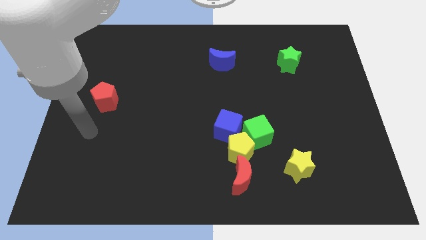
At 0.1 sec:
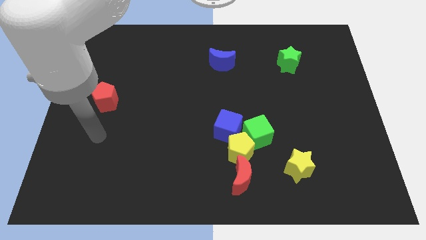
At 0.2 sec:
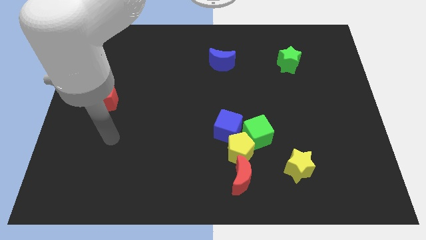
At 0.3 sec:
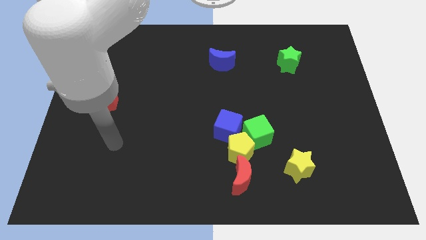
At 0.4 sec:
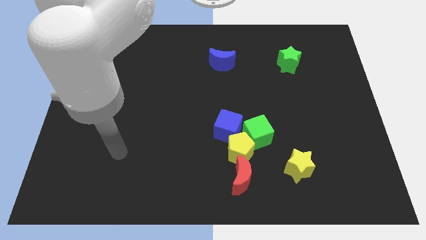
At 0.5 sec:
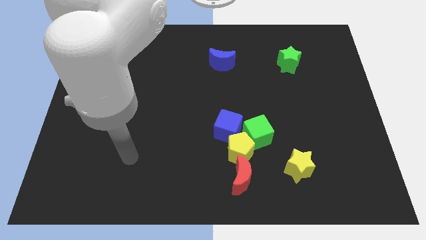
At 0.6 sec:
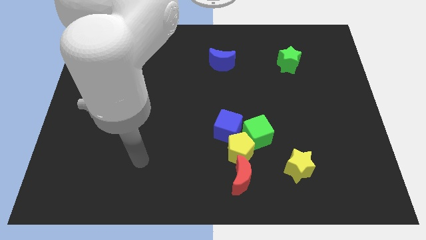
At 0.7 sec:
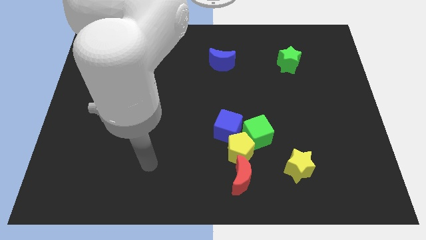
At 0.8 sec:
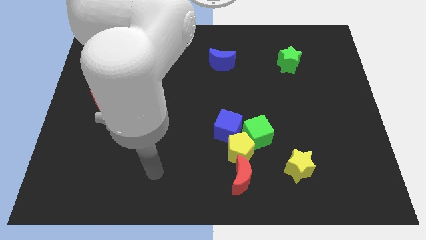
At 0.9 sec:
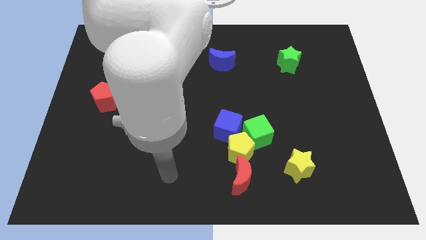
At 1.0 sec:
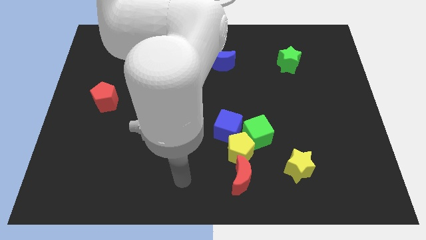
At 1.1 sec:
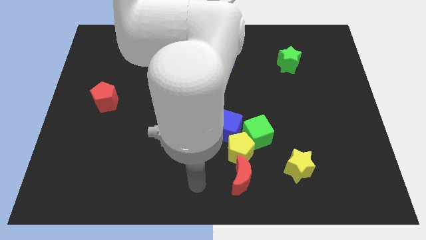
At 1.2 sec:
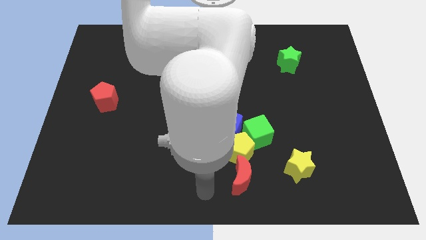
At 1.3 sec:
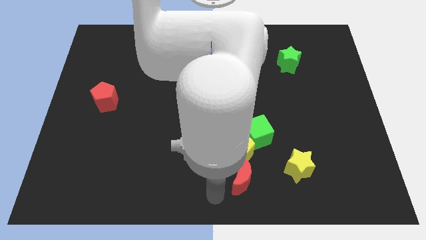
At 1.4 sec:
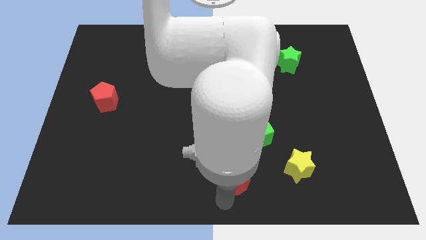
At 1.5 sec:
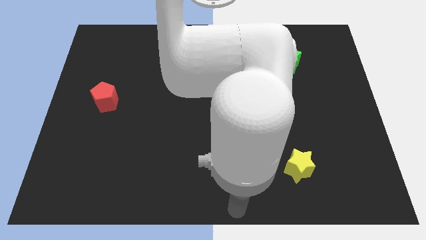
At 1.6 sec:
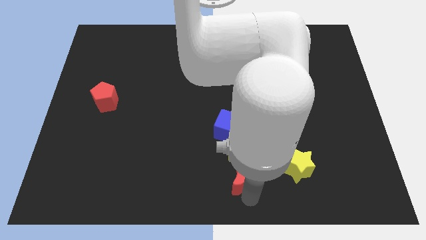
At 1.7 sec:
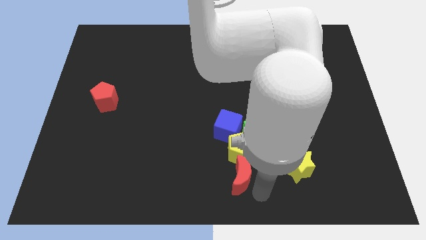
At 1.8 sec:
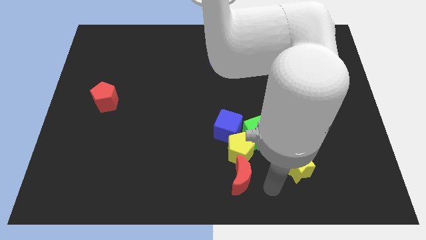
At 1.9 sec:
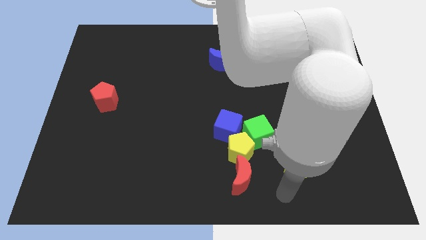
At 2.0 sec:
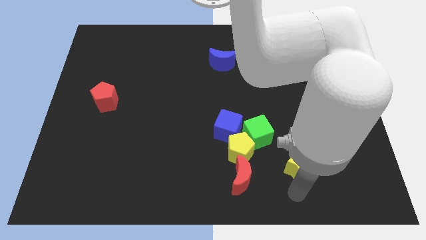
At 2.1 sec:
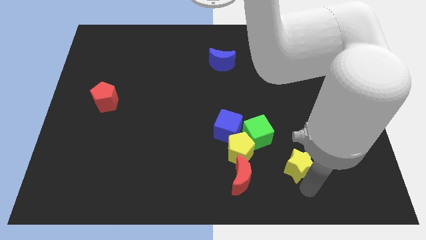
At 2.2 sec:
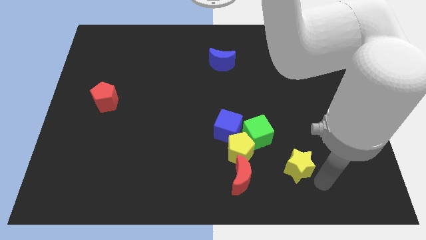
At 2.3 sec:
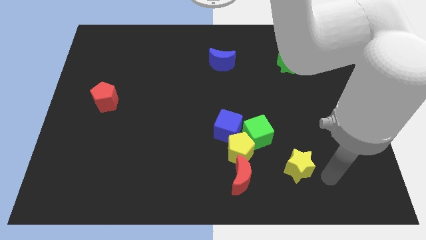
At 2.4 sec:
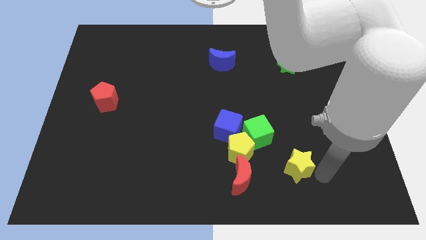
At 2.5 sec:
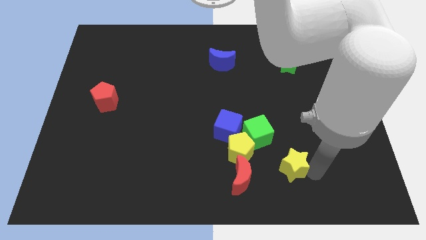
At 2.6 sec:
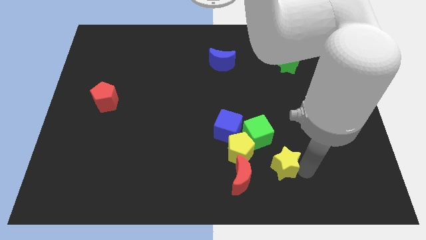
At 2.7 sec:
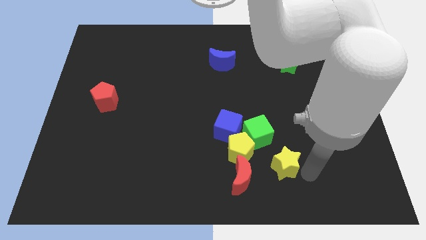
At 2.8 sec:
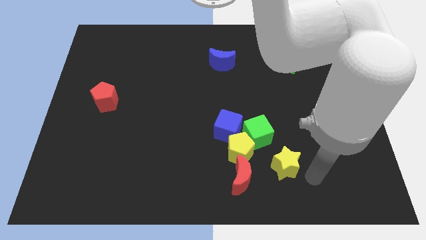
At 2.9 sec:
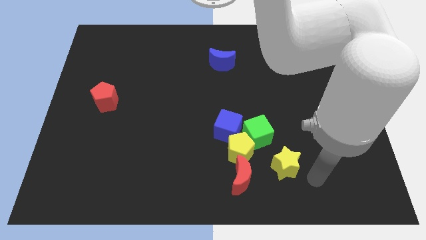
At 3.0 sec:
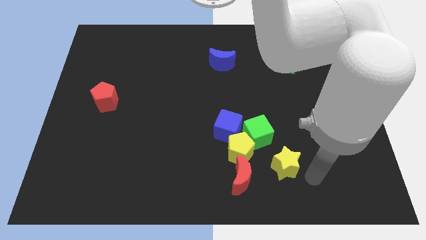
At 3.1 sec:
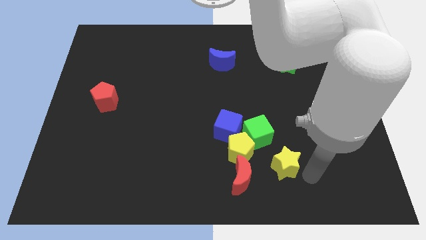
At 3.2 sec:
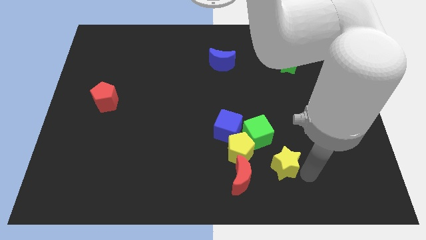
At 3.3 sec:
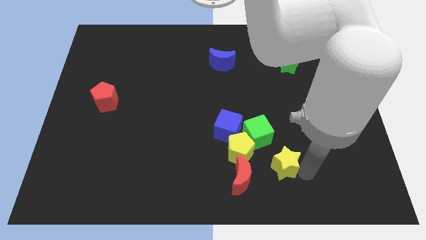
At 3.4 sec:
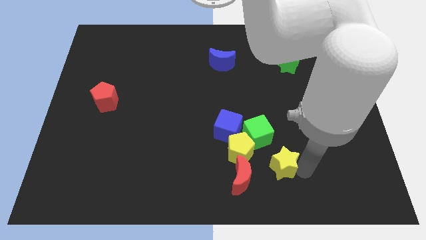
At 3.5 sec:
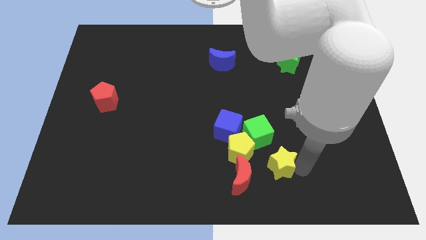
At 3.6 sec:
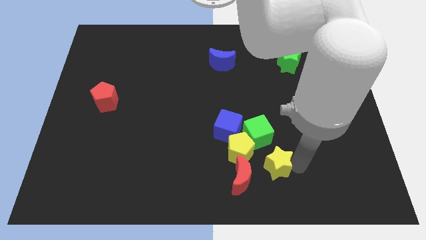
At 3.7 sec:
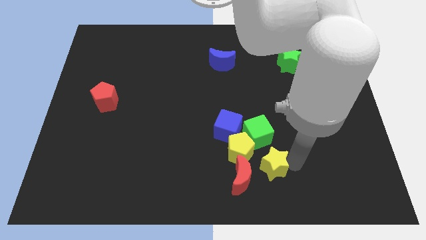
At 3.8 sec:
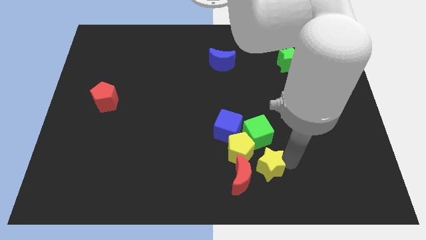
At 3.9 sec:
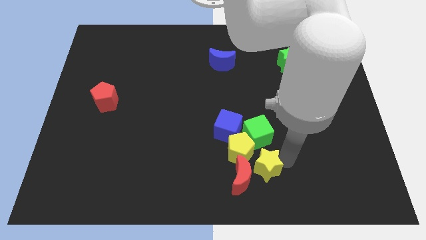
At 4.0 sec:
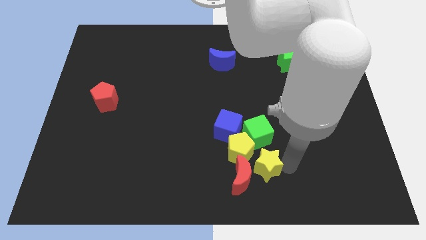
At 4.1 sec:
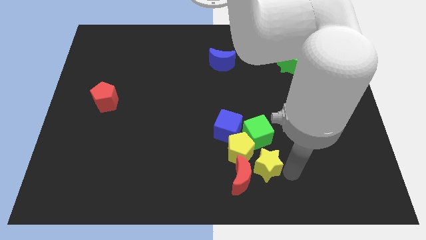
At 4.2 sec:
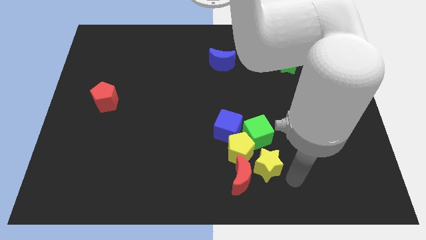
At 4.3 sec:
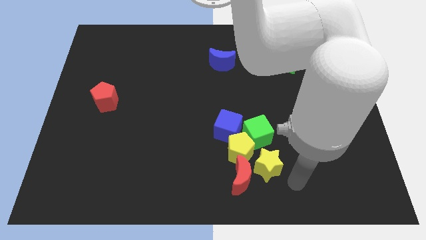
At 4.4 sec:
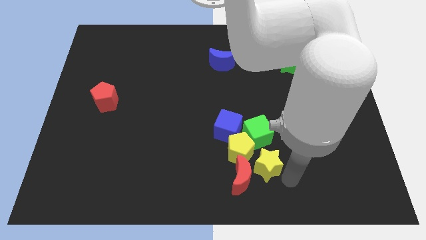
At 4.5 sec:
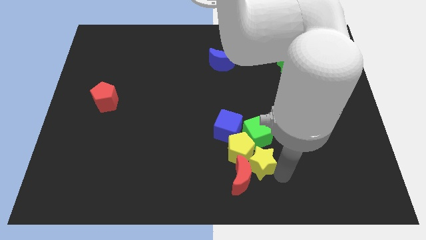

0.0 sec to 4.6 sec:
push the yellow star close to the yellow pentagon

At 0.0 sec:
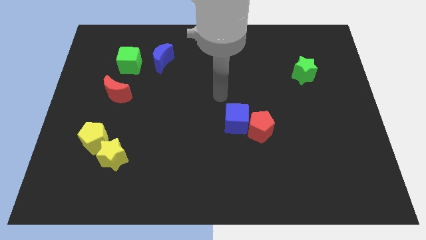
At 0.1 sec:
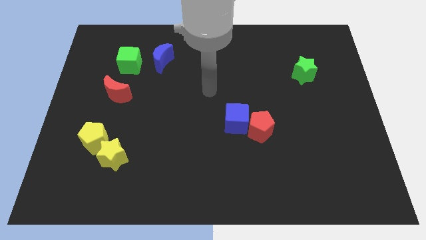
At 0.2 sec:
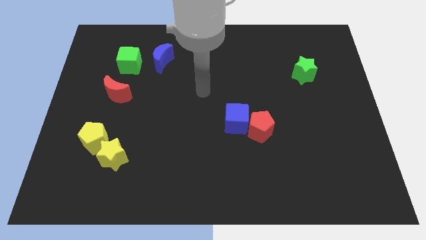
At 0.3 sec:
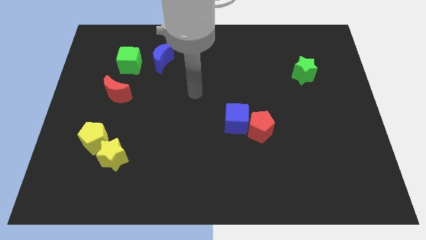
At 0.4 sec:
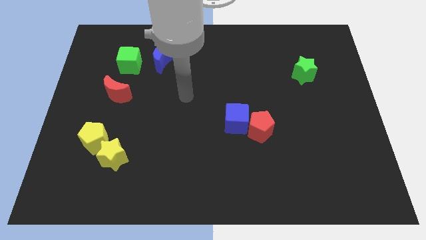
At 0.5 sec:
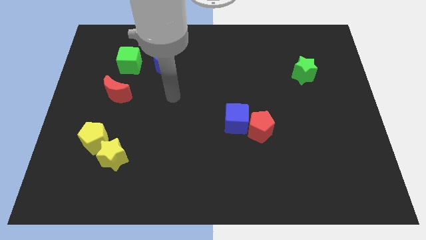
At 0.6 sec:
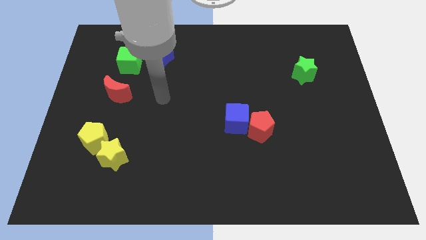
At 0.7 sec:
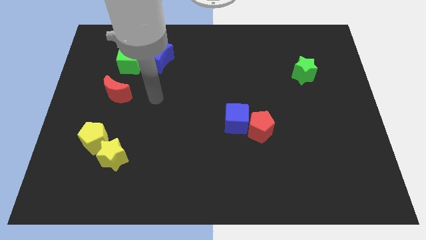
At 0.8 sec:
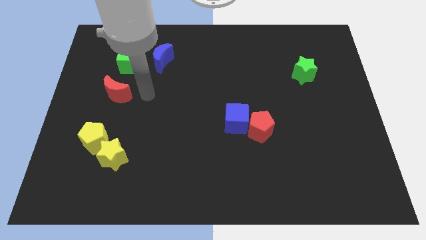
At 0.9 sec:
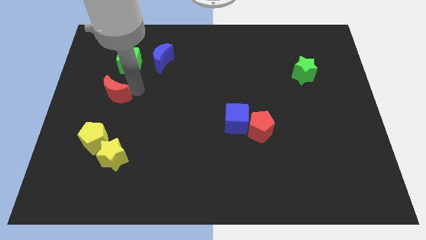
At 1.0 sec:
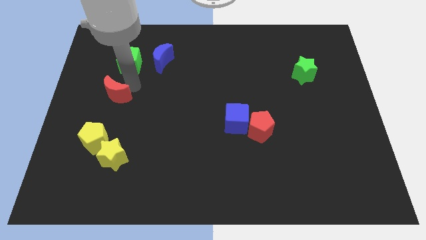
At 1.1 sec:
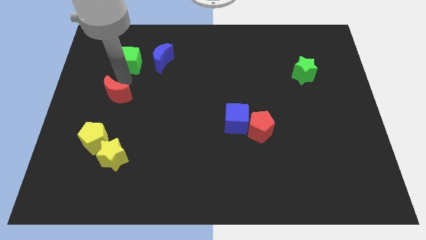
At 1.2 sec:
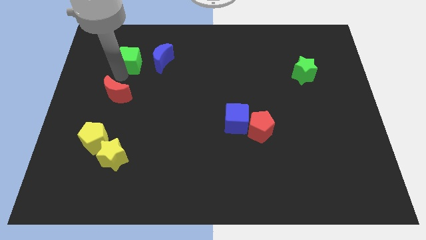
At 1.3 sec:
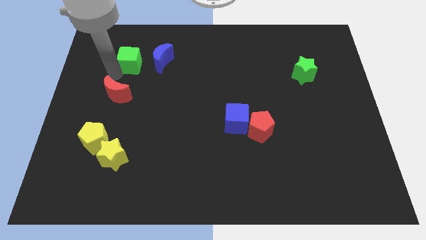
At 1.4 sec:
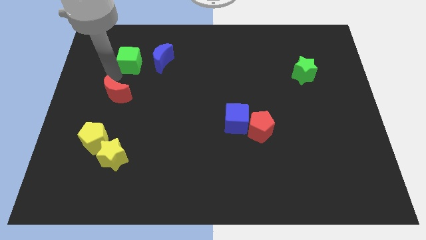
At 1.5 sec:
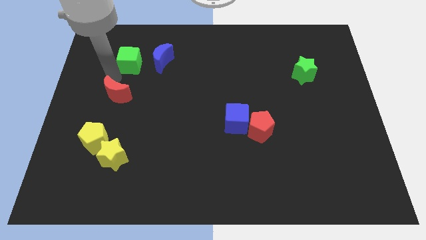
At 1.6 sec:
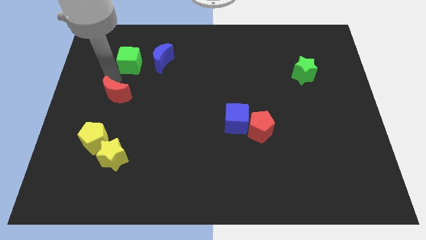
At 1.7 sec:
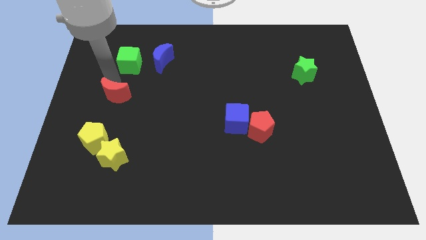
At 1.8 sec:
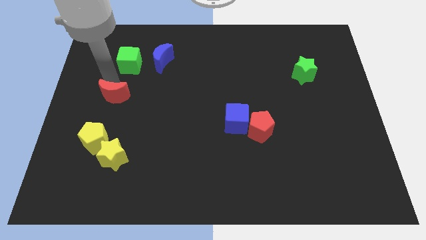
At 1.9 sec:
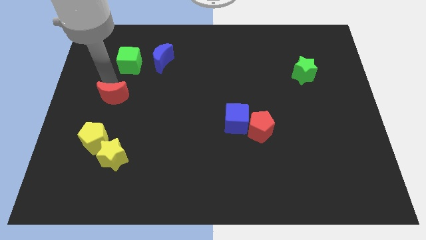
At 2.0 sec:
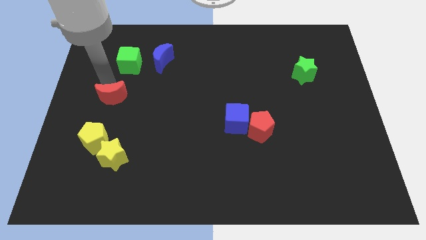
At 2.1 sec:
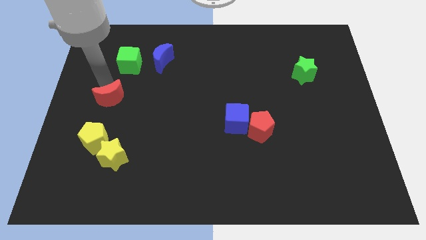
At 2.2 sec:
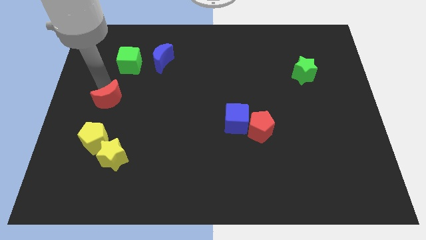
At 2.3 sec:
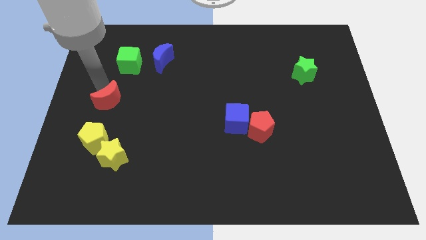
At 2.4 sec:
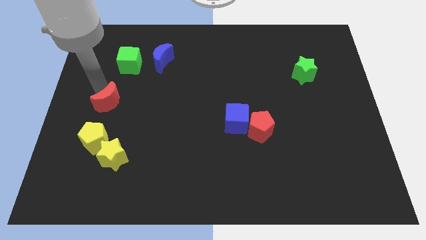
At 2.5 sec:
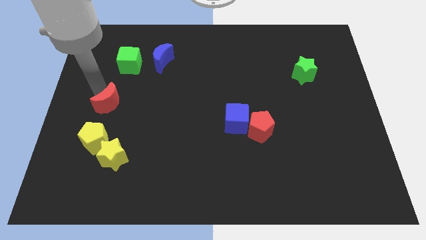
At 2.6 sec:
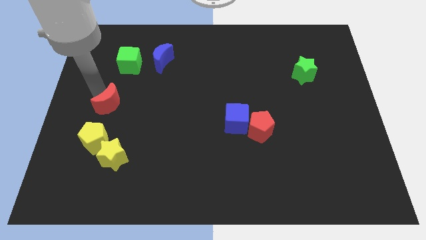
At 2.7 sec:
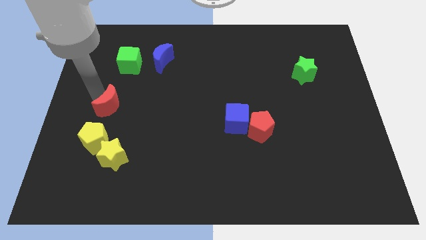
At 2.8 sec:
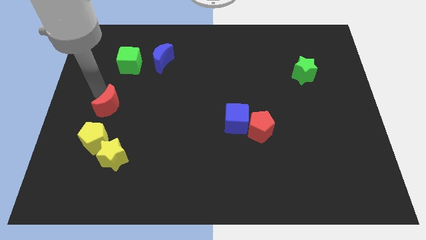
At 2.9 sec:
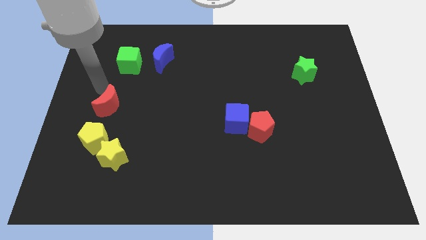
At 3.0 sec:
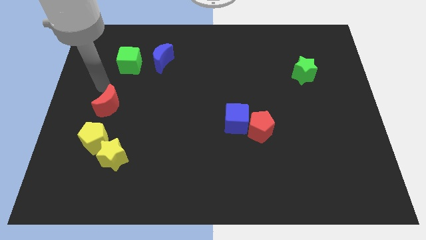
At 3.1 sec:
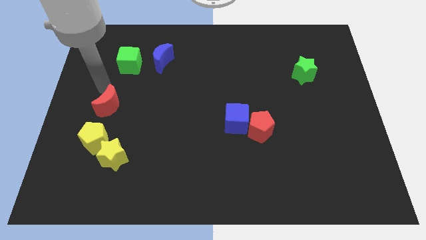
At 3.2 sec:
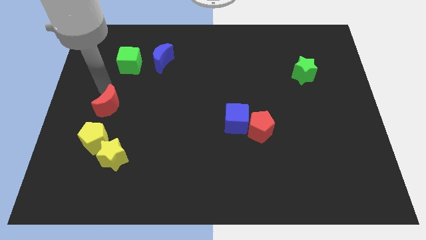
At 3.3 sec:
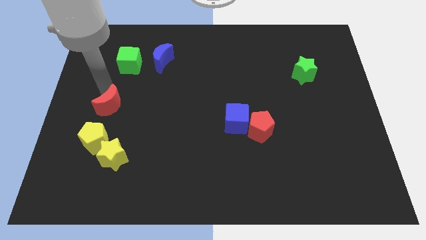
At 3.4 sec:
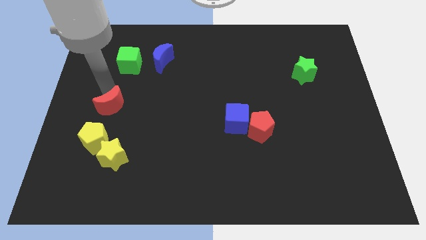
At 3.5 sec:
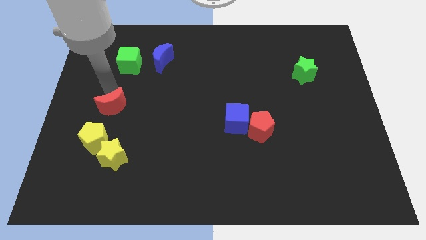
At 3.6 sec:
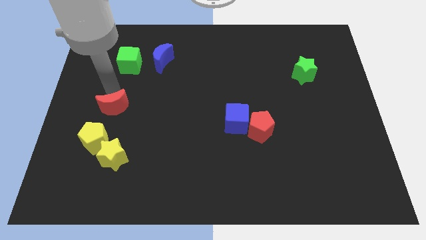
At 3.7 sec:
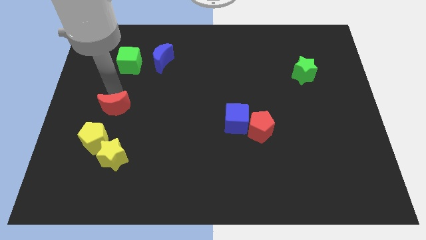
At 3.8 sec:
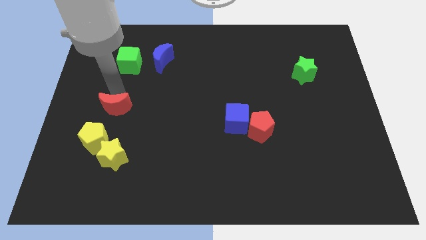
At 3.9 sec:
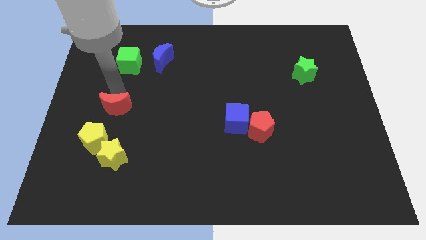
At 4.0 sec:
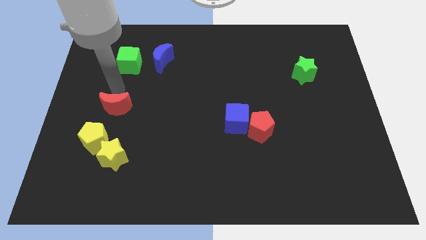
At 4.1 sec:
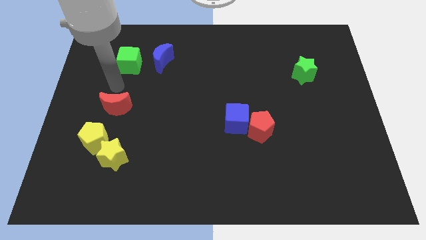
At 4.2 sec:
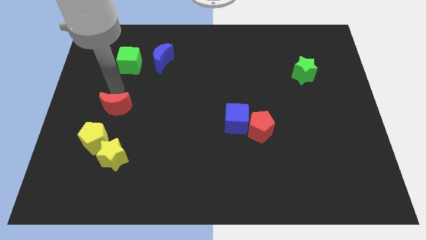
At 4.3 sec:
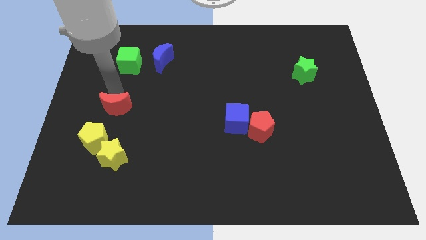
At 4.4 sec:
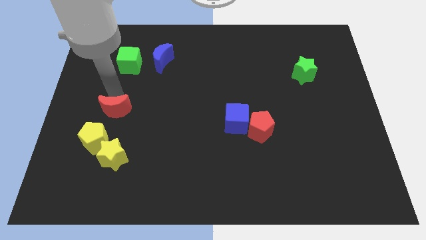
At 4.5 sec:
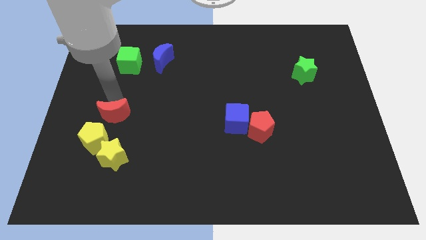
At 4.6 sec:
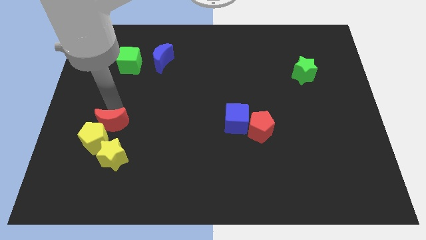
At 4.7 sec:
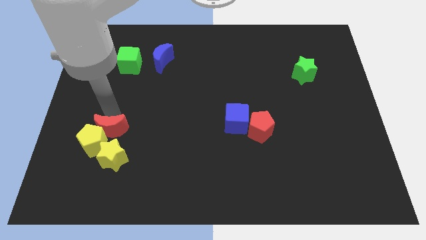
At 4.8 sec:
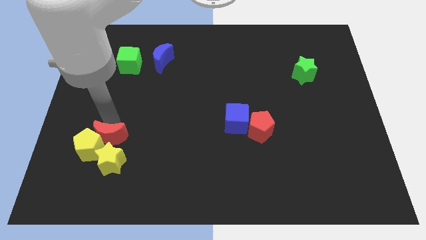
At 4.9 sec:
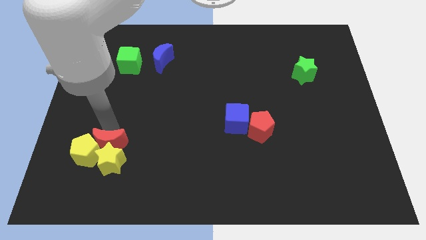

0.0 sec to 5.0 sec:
move the red moon to the yellow star
